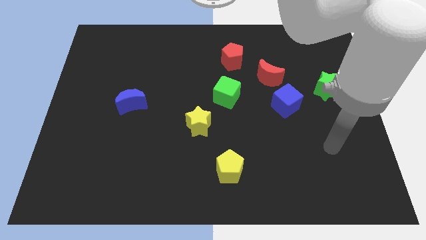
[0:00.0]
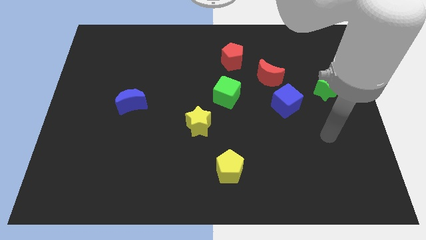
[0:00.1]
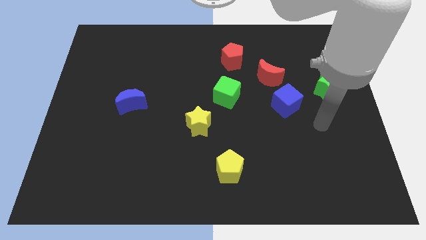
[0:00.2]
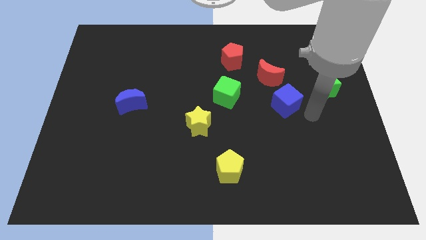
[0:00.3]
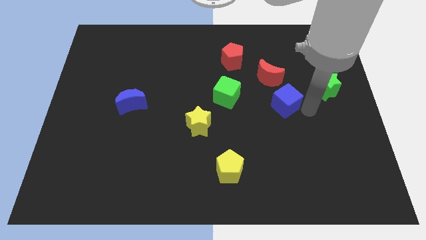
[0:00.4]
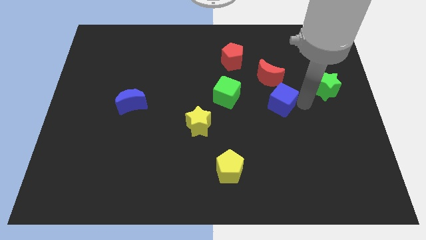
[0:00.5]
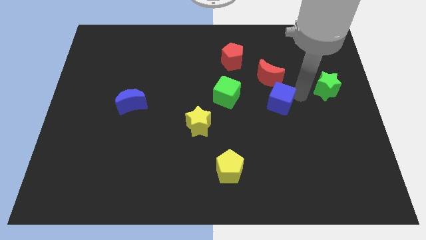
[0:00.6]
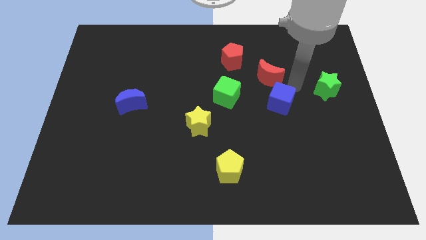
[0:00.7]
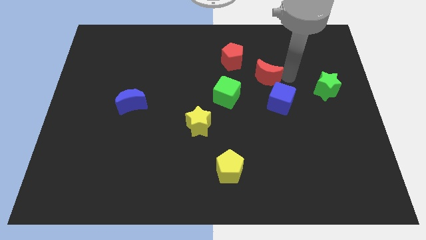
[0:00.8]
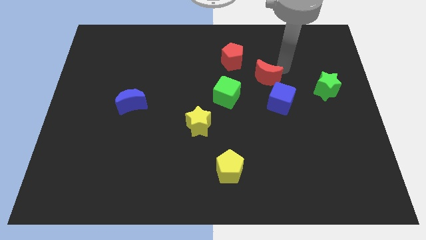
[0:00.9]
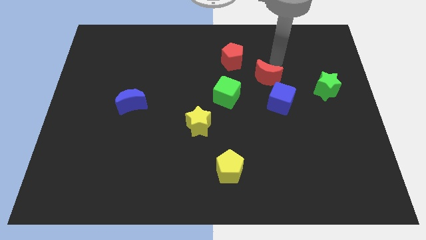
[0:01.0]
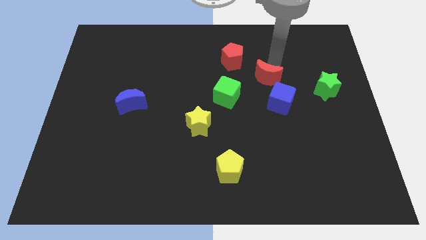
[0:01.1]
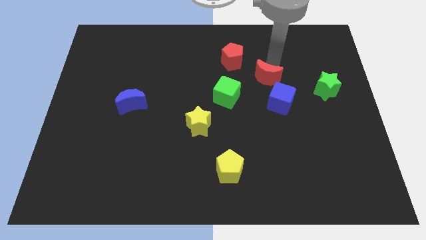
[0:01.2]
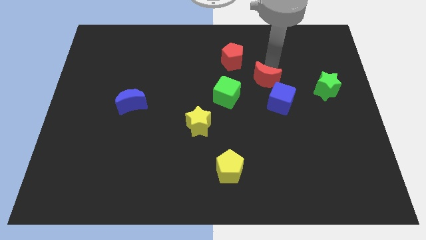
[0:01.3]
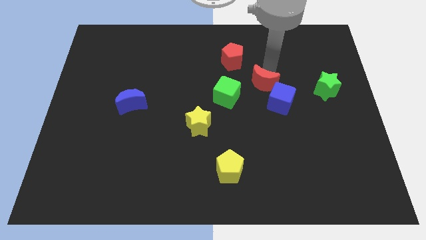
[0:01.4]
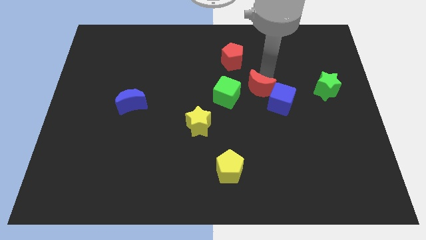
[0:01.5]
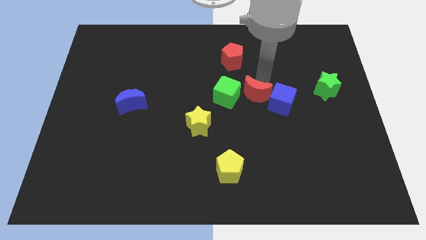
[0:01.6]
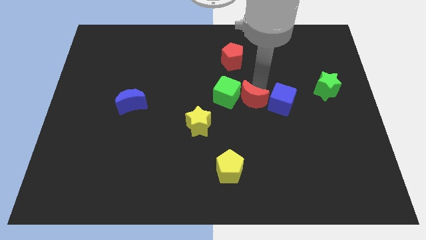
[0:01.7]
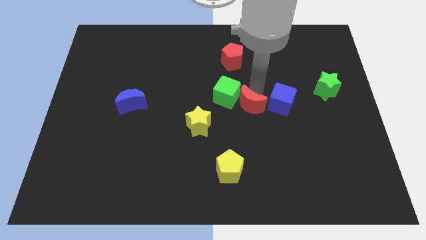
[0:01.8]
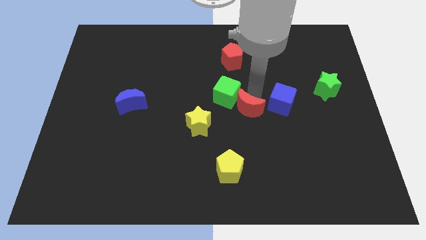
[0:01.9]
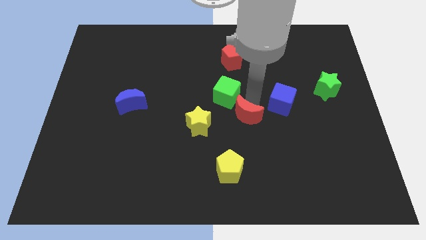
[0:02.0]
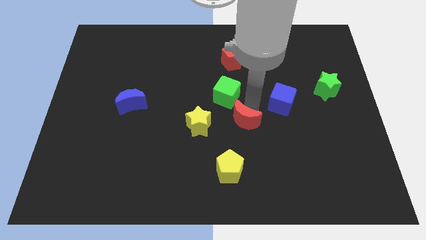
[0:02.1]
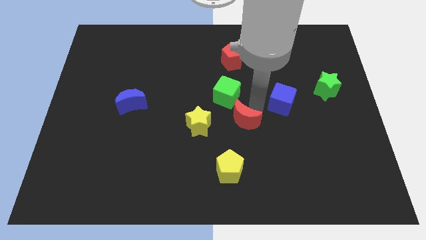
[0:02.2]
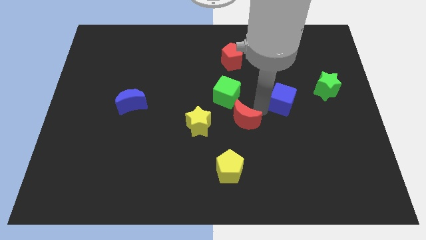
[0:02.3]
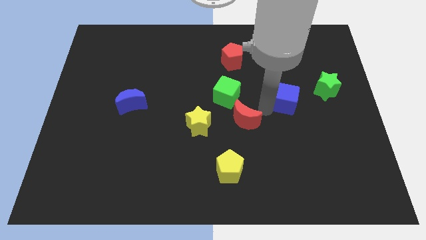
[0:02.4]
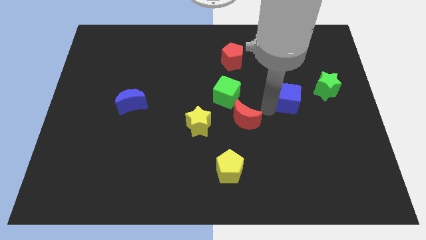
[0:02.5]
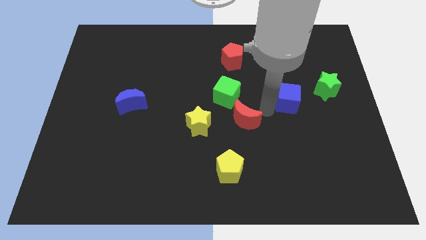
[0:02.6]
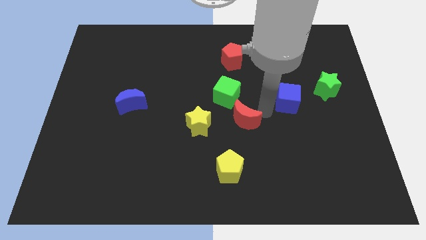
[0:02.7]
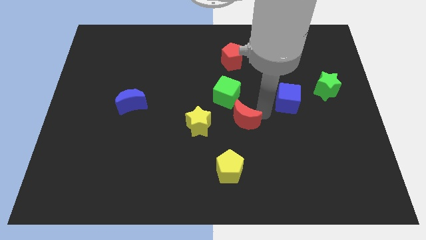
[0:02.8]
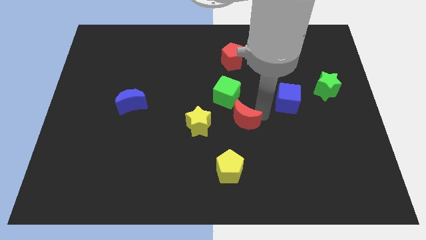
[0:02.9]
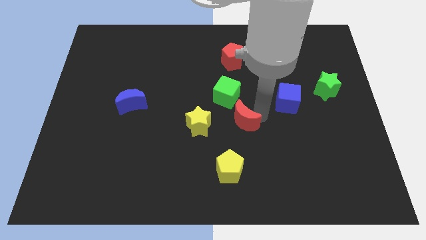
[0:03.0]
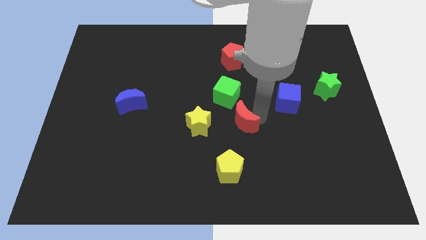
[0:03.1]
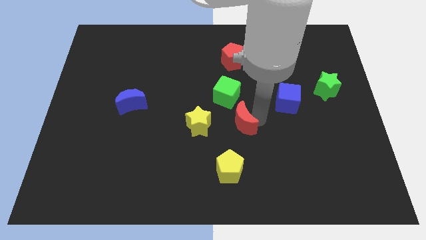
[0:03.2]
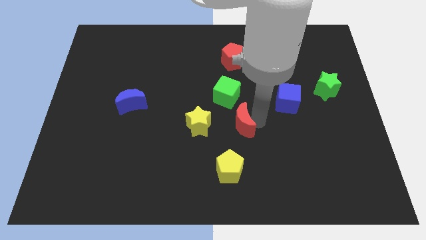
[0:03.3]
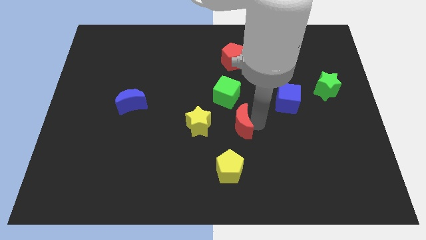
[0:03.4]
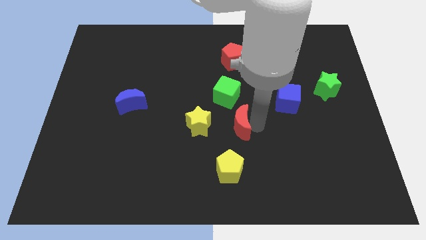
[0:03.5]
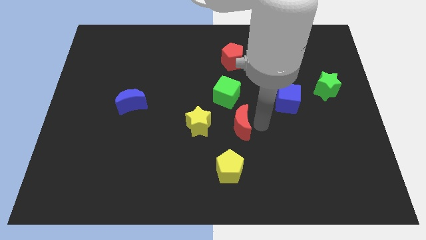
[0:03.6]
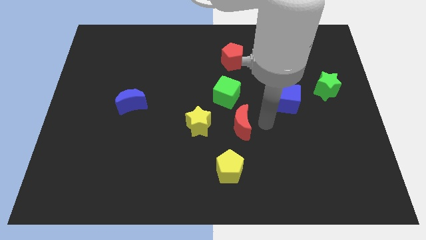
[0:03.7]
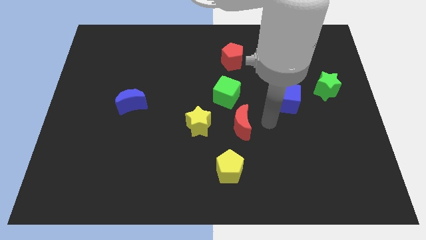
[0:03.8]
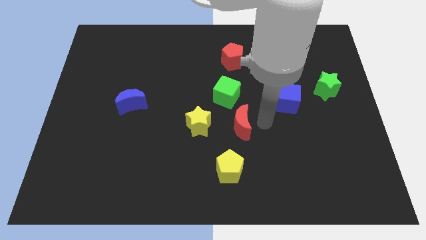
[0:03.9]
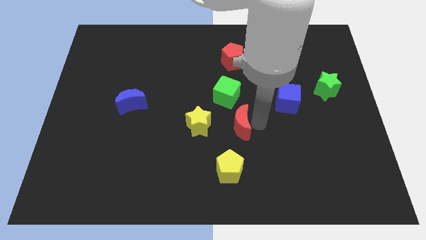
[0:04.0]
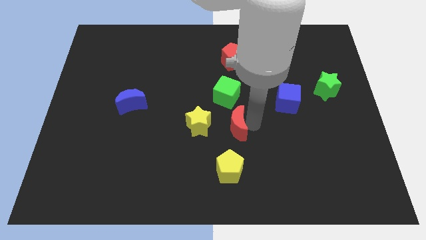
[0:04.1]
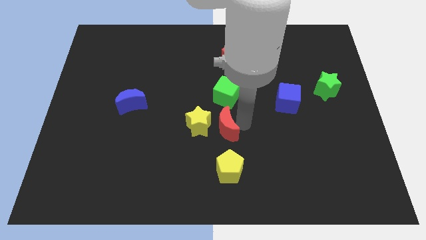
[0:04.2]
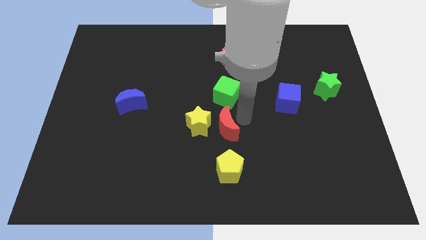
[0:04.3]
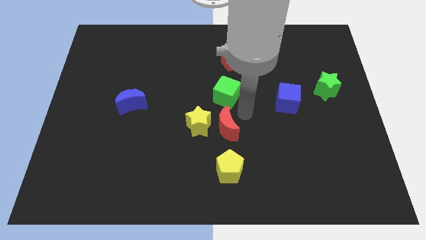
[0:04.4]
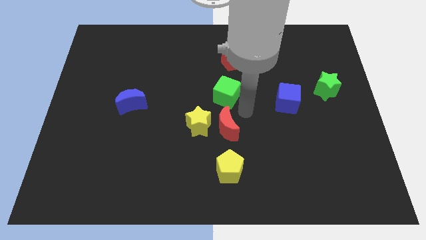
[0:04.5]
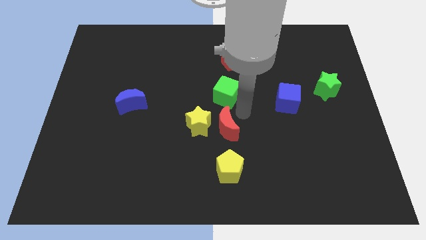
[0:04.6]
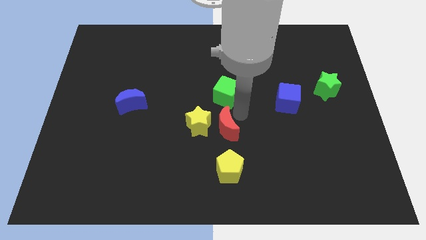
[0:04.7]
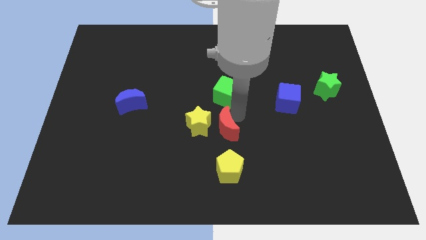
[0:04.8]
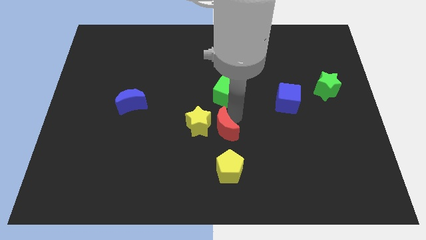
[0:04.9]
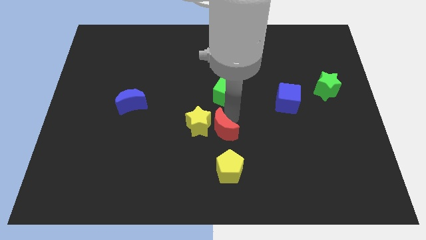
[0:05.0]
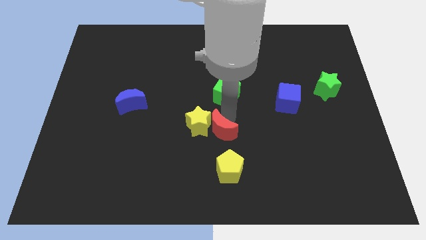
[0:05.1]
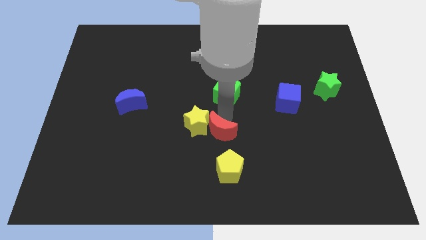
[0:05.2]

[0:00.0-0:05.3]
slide the red moon downwards and left

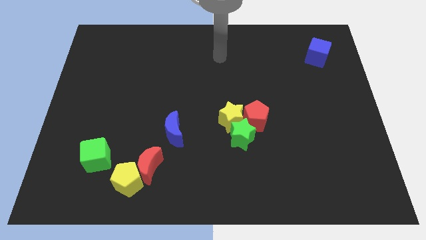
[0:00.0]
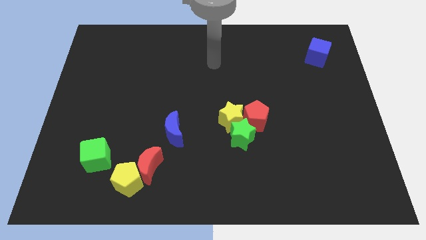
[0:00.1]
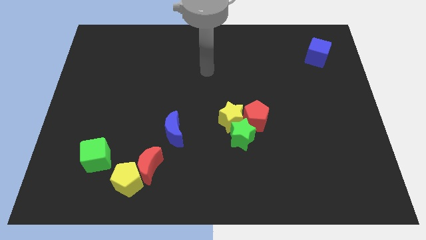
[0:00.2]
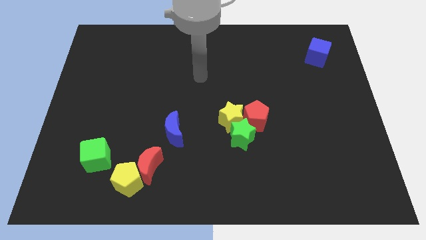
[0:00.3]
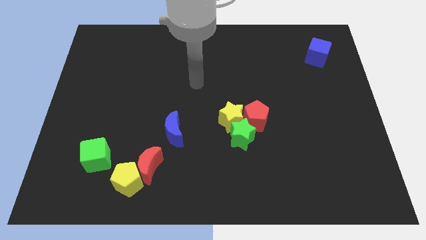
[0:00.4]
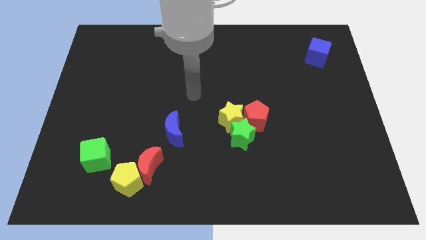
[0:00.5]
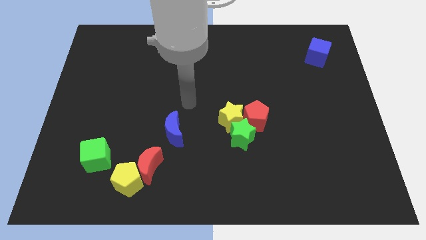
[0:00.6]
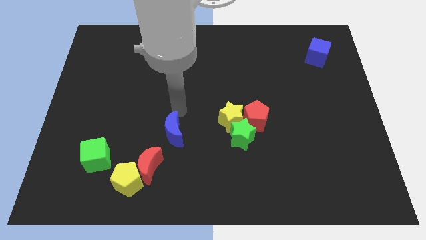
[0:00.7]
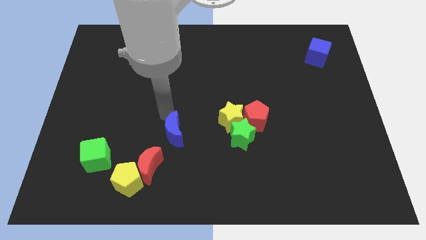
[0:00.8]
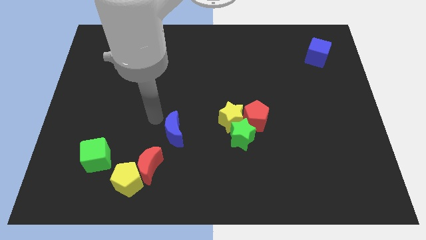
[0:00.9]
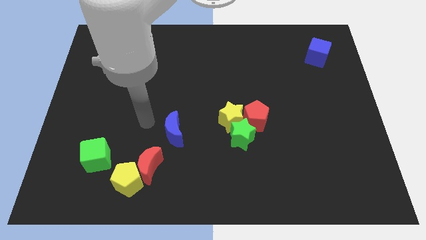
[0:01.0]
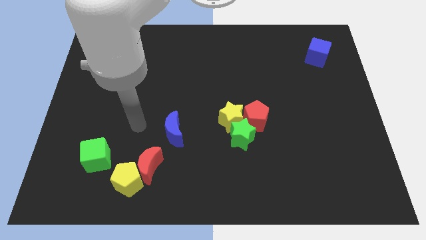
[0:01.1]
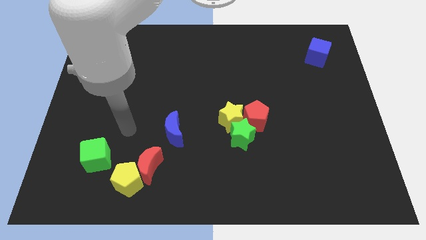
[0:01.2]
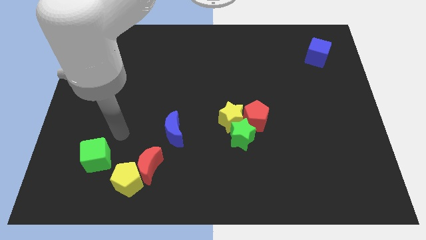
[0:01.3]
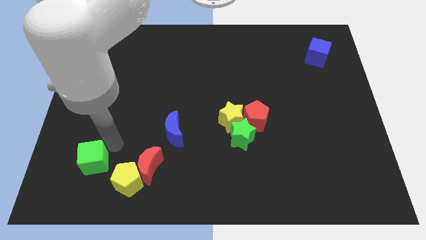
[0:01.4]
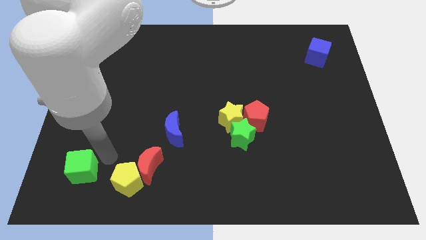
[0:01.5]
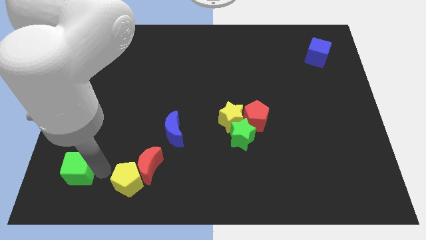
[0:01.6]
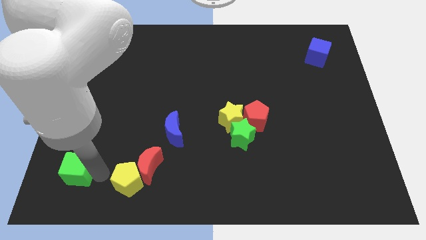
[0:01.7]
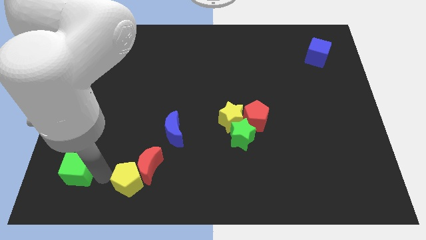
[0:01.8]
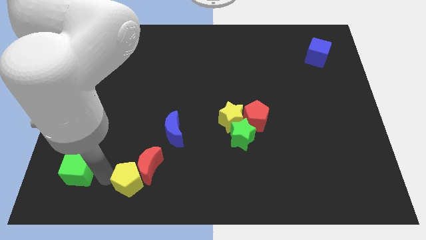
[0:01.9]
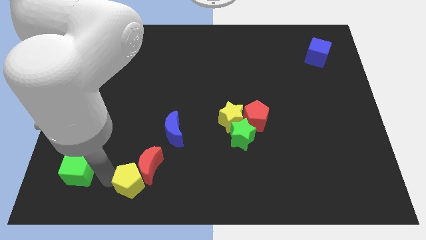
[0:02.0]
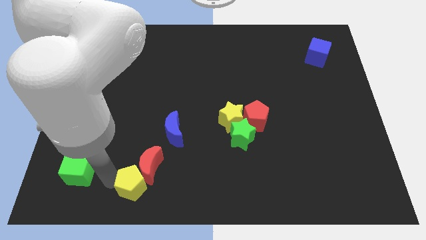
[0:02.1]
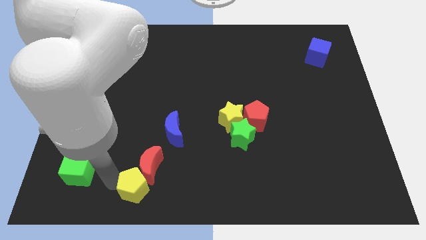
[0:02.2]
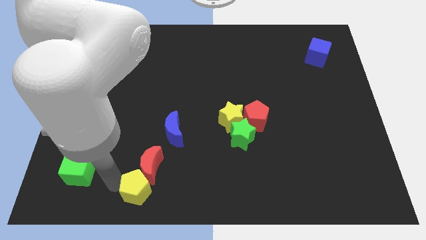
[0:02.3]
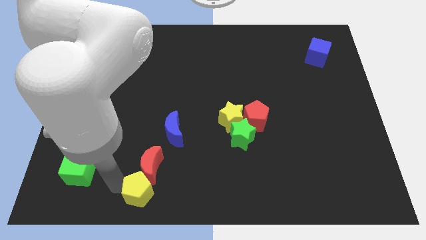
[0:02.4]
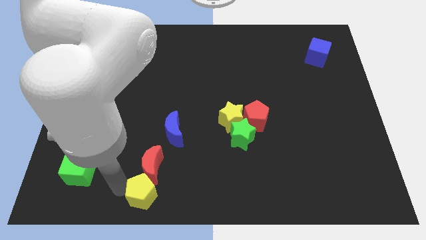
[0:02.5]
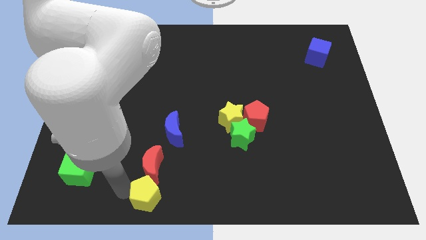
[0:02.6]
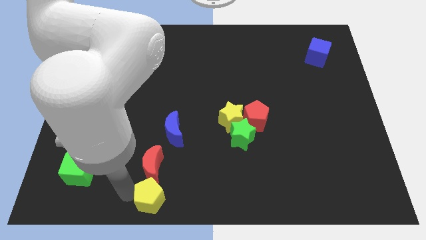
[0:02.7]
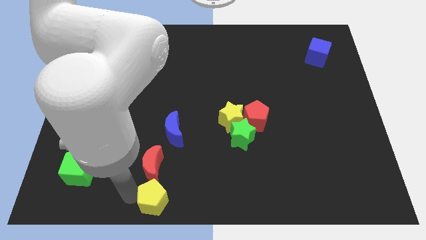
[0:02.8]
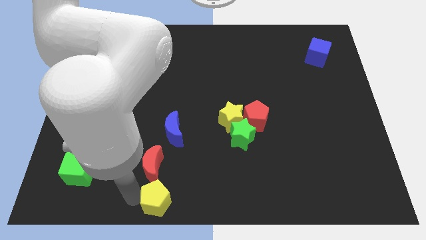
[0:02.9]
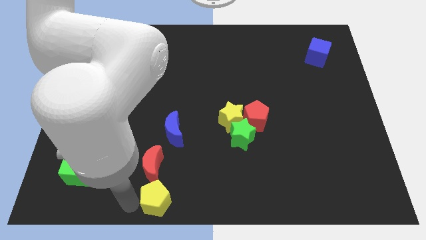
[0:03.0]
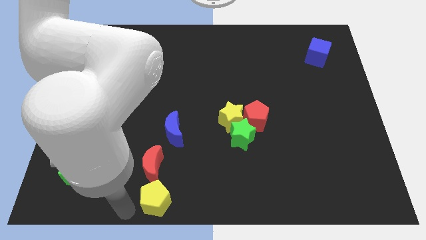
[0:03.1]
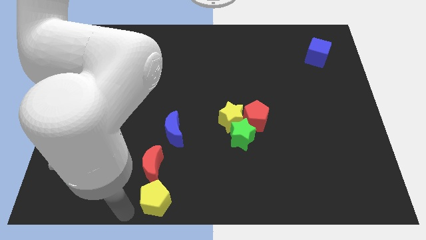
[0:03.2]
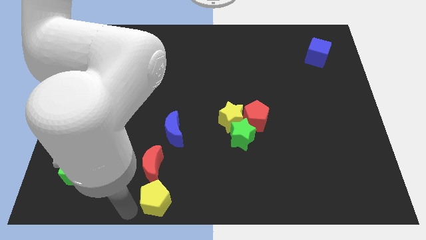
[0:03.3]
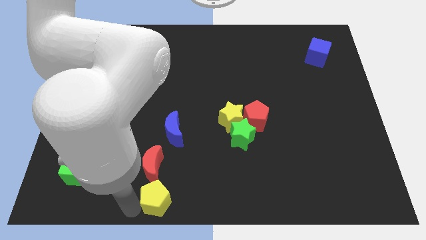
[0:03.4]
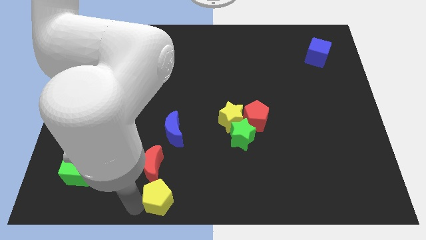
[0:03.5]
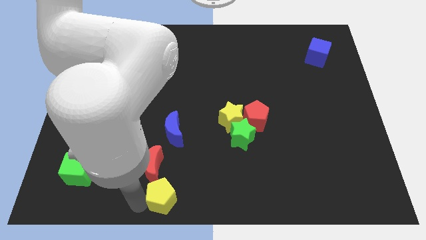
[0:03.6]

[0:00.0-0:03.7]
slightly slide the yellow pentagon right
